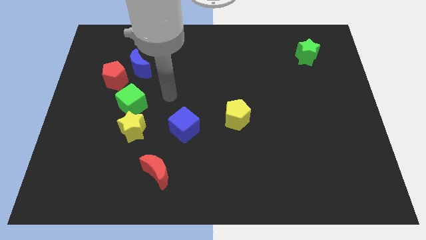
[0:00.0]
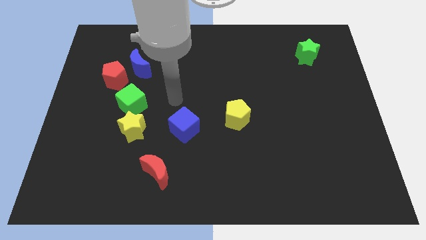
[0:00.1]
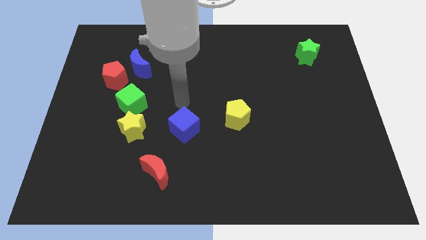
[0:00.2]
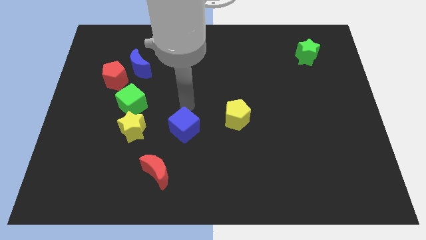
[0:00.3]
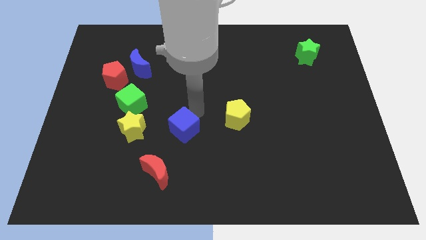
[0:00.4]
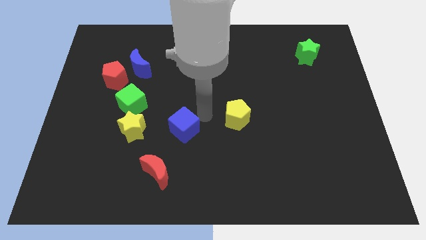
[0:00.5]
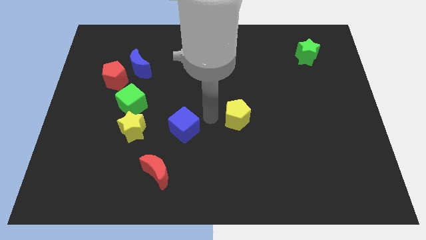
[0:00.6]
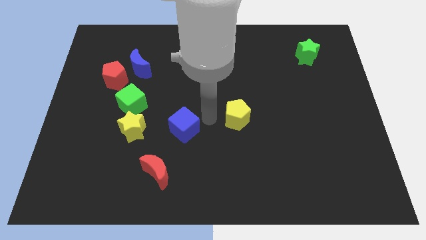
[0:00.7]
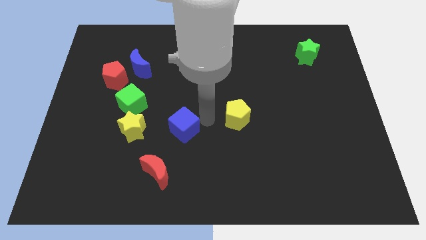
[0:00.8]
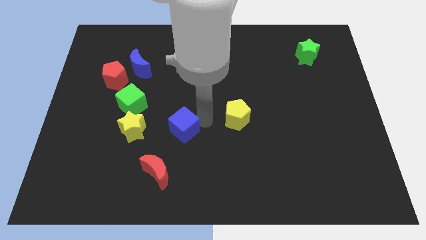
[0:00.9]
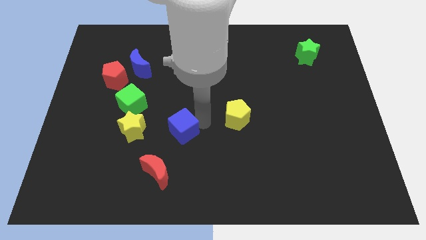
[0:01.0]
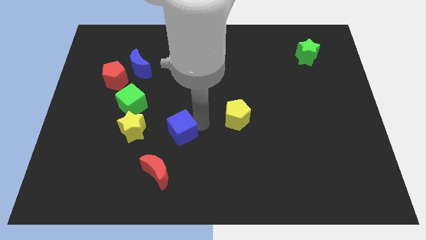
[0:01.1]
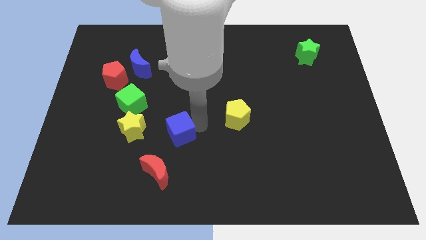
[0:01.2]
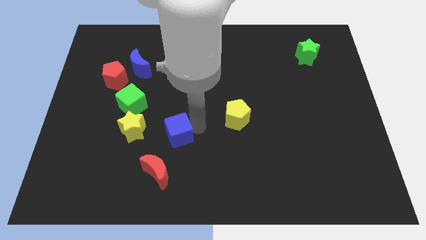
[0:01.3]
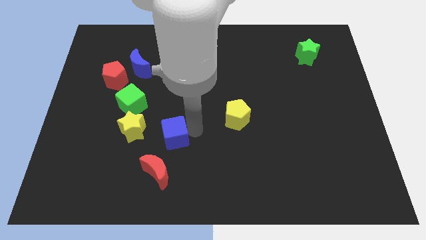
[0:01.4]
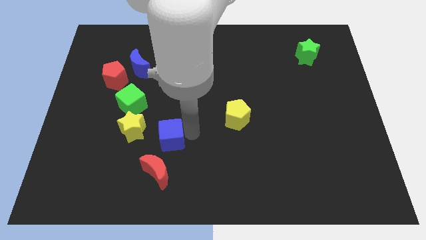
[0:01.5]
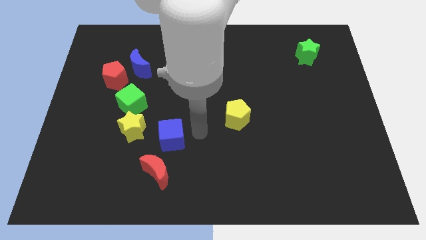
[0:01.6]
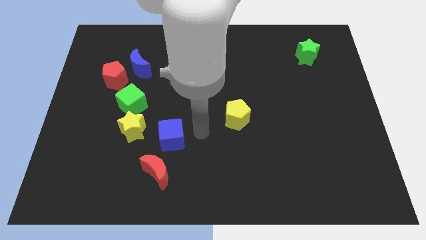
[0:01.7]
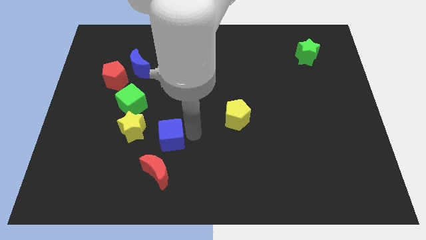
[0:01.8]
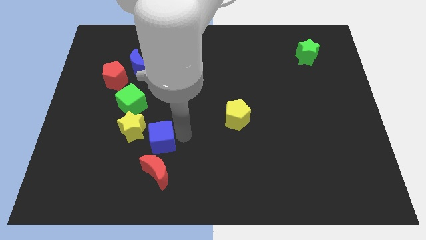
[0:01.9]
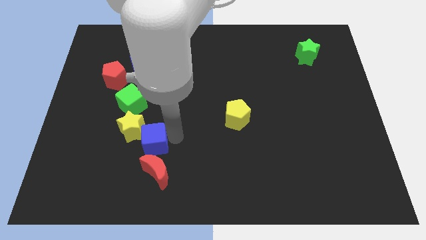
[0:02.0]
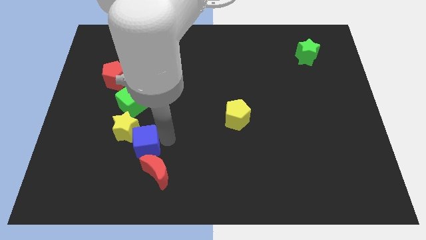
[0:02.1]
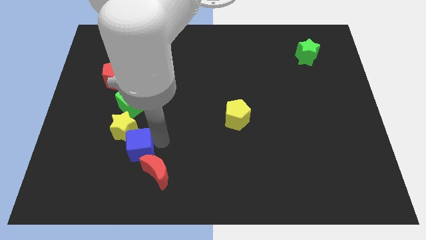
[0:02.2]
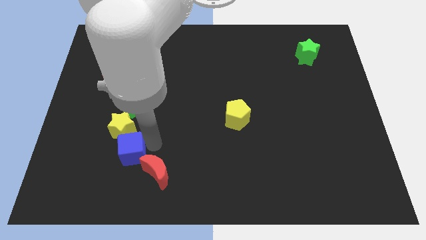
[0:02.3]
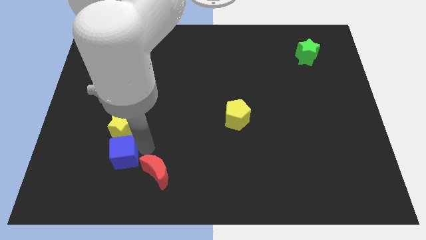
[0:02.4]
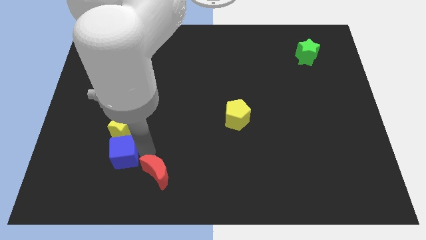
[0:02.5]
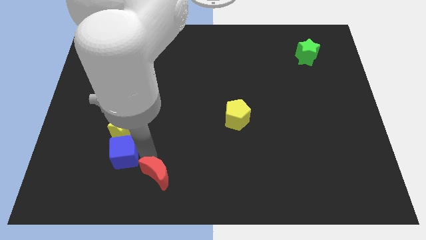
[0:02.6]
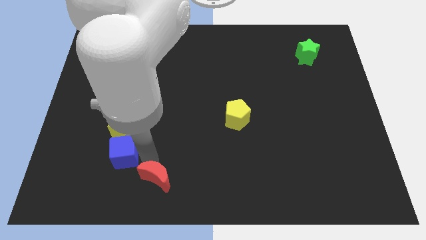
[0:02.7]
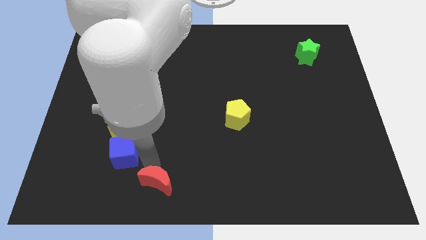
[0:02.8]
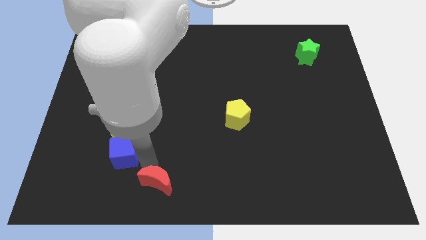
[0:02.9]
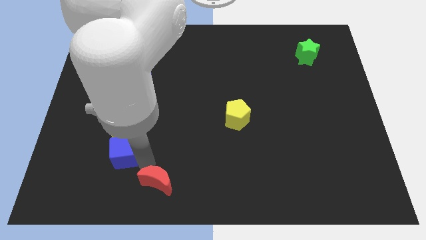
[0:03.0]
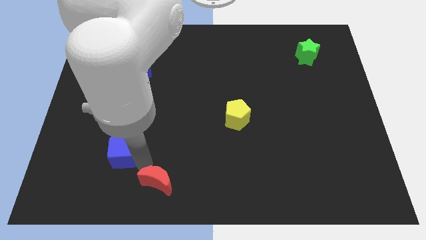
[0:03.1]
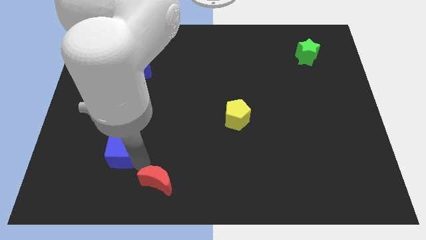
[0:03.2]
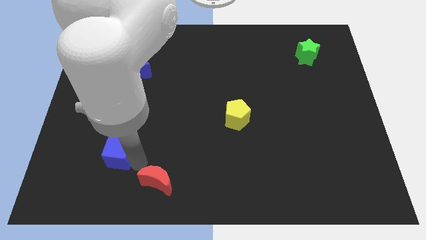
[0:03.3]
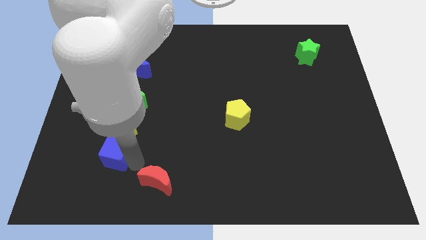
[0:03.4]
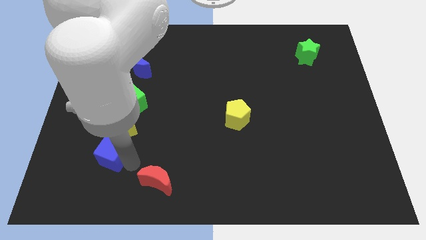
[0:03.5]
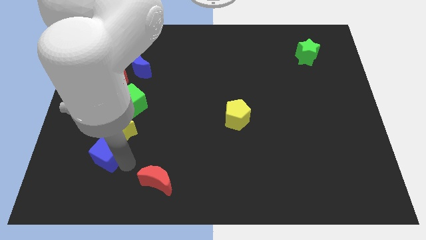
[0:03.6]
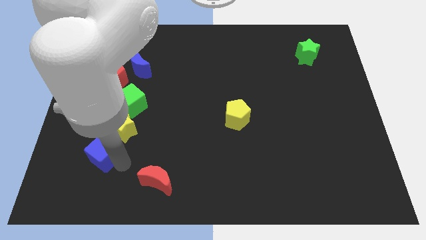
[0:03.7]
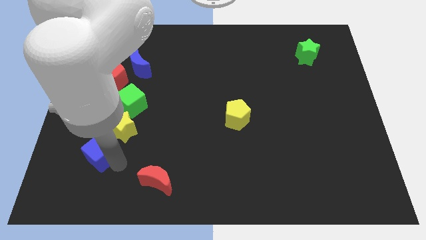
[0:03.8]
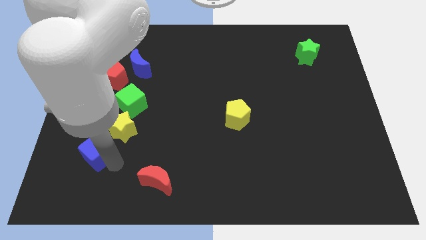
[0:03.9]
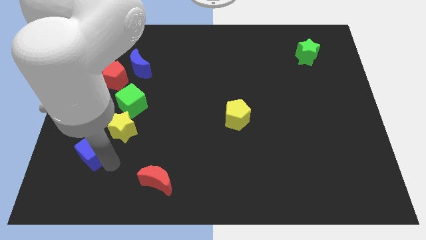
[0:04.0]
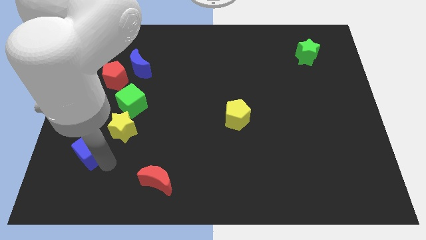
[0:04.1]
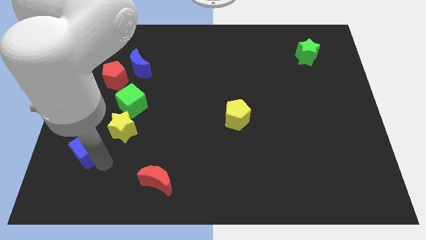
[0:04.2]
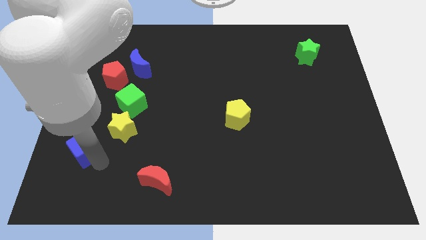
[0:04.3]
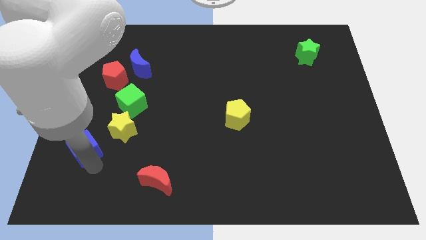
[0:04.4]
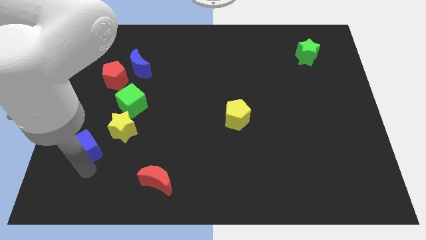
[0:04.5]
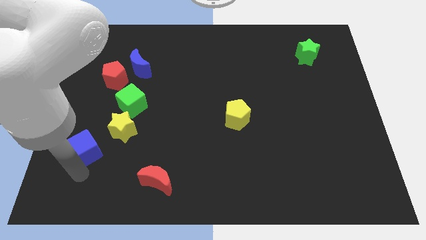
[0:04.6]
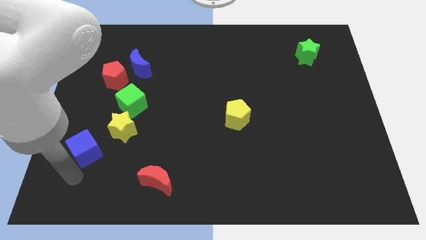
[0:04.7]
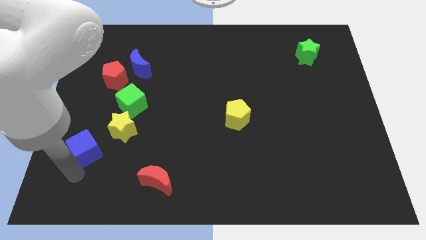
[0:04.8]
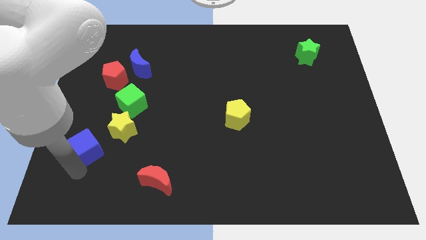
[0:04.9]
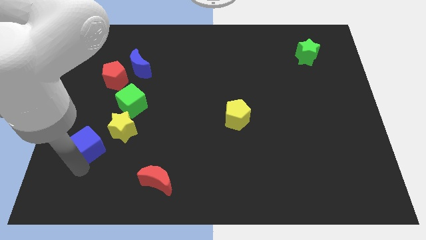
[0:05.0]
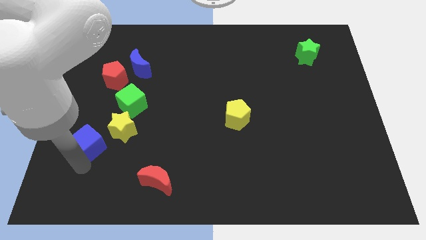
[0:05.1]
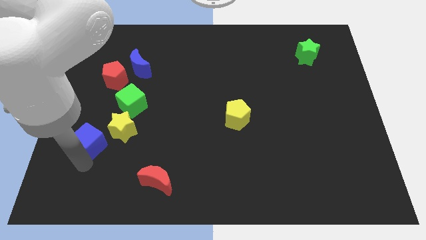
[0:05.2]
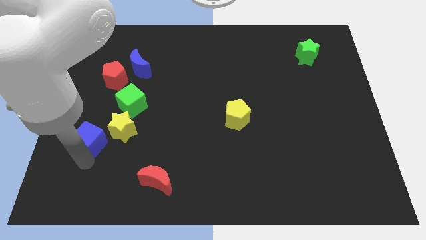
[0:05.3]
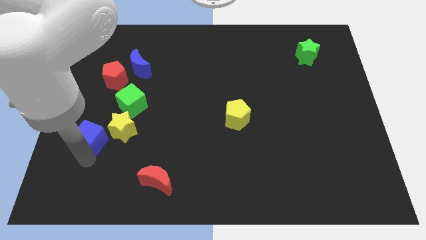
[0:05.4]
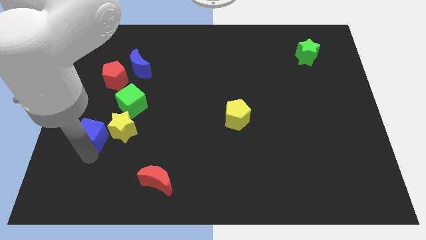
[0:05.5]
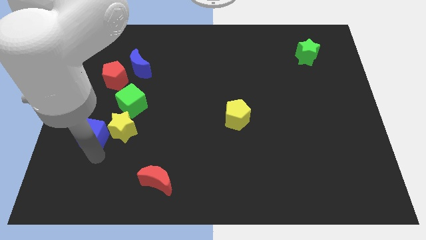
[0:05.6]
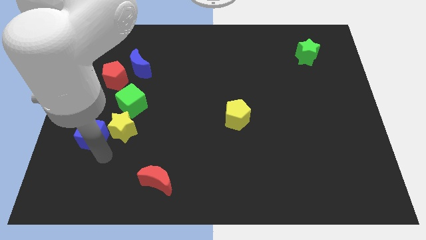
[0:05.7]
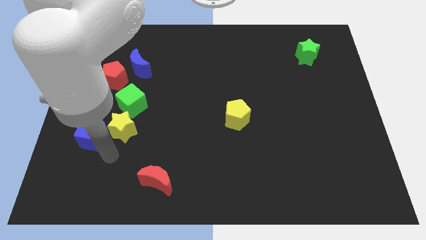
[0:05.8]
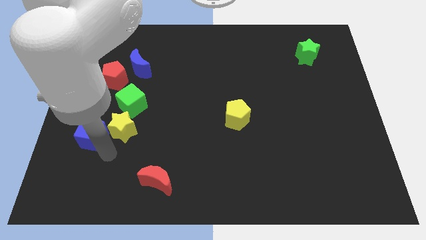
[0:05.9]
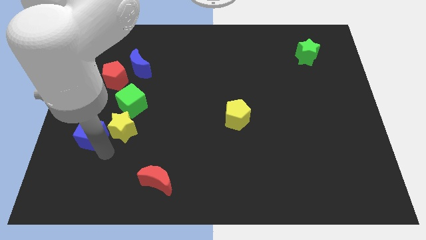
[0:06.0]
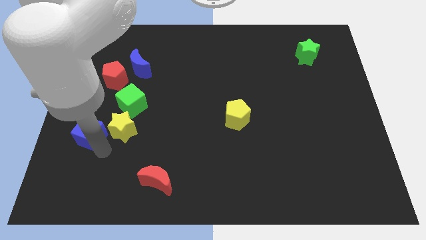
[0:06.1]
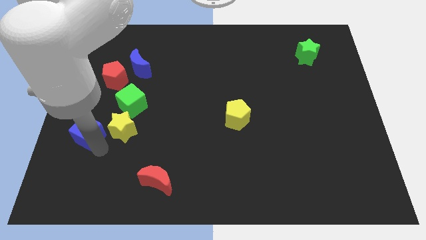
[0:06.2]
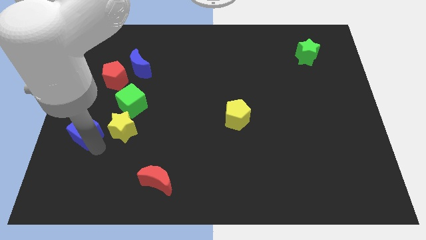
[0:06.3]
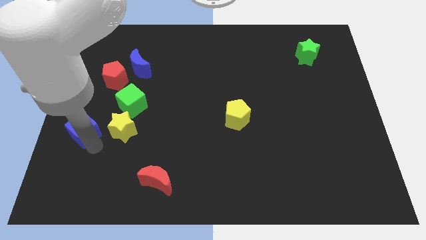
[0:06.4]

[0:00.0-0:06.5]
push the blue cube to the center left

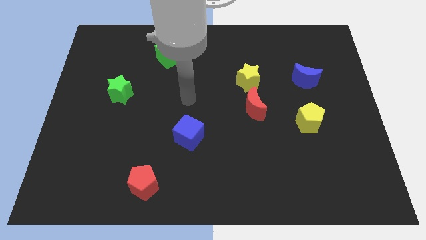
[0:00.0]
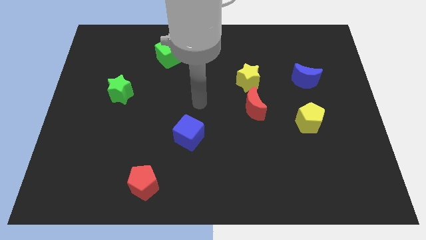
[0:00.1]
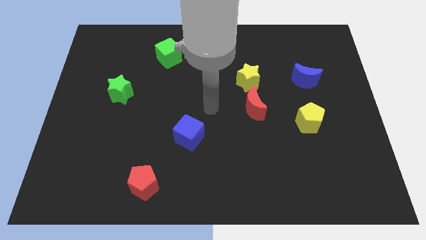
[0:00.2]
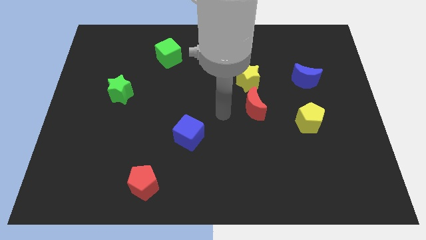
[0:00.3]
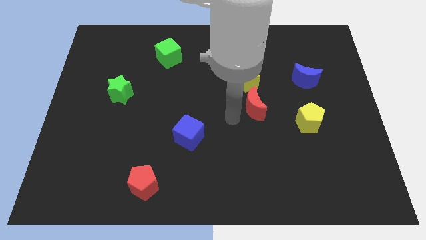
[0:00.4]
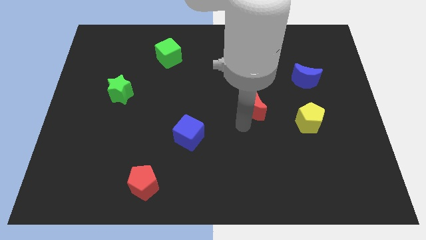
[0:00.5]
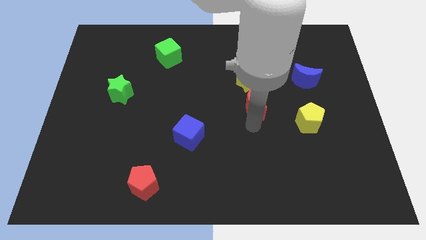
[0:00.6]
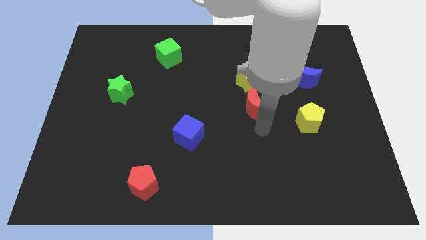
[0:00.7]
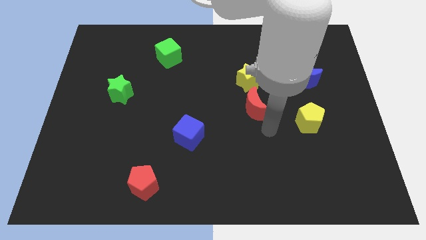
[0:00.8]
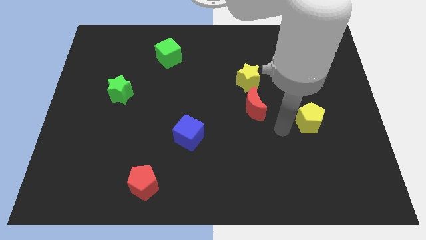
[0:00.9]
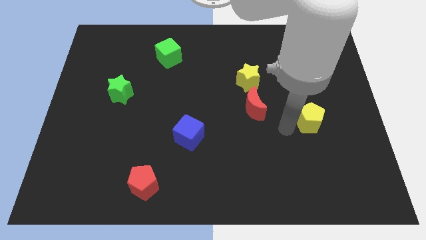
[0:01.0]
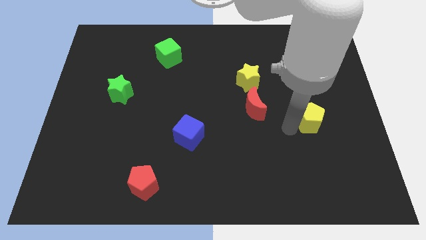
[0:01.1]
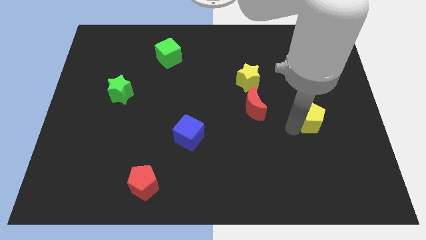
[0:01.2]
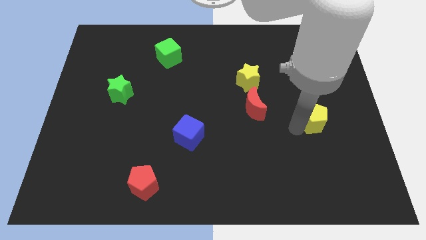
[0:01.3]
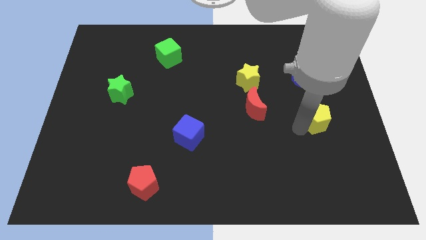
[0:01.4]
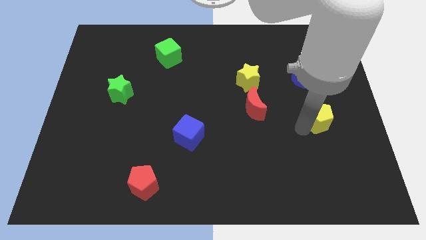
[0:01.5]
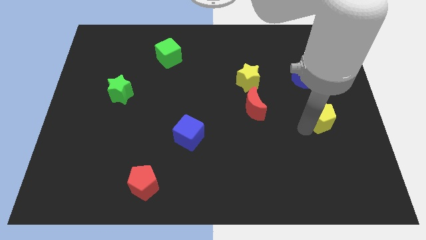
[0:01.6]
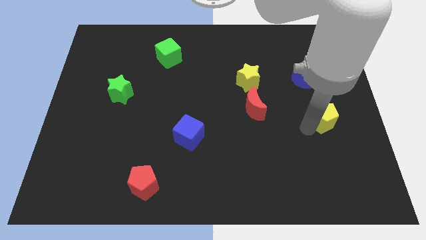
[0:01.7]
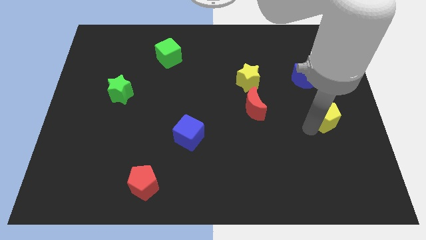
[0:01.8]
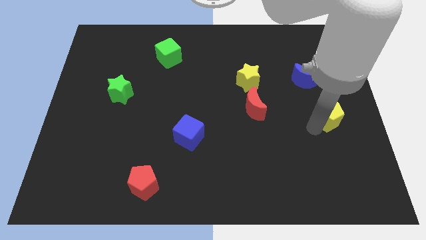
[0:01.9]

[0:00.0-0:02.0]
move the yellow pentagon to the center right
